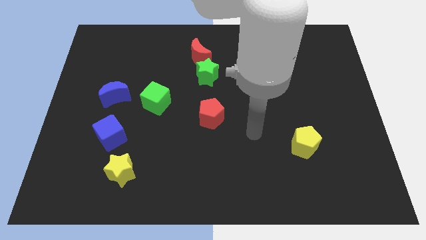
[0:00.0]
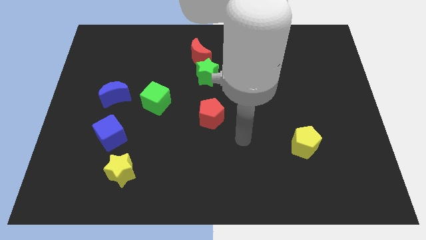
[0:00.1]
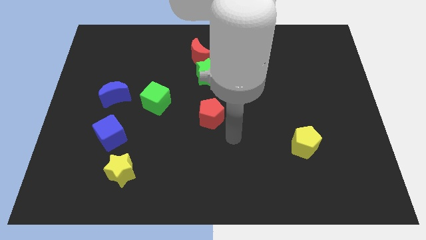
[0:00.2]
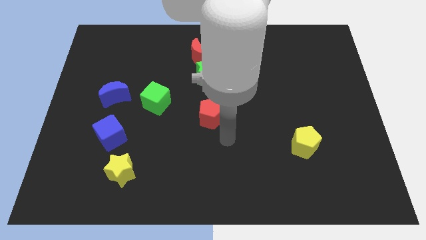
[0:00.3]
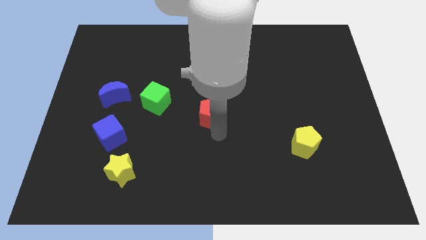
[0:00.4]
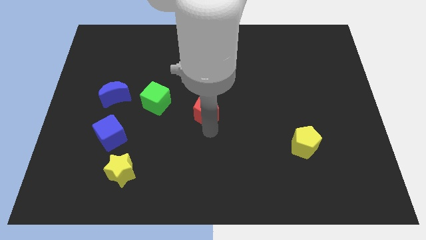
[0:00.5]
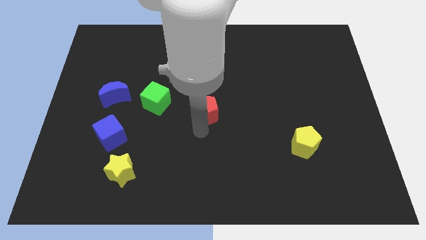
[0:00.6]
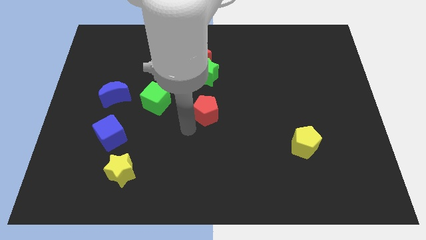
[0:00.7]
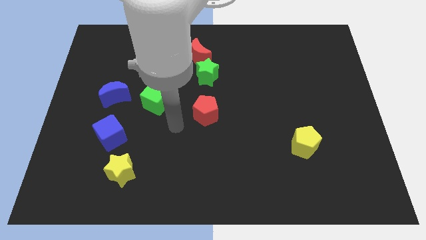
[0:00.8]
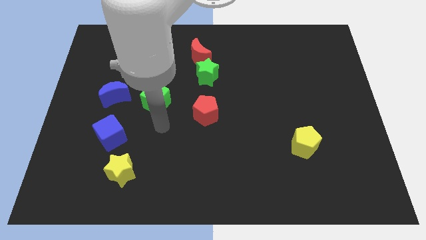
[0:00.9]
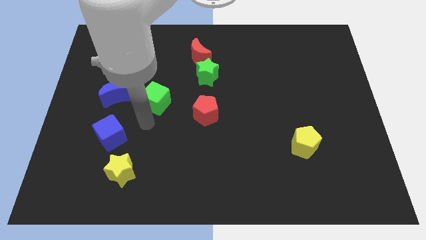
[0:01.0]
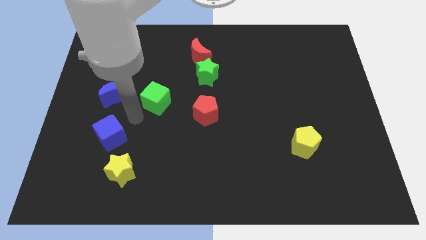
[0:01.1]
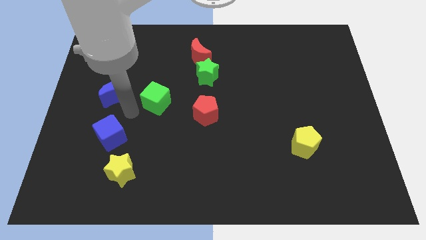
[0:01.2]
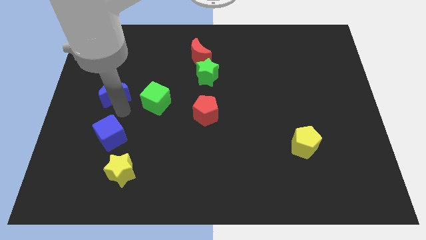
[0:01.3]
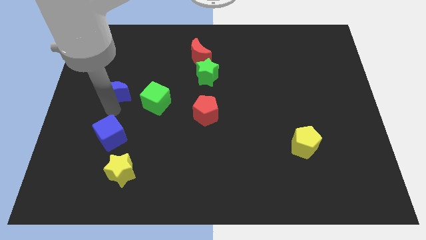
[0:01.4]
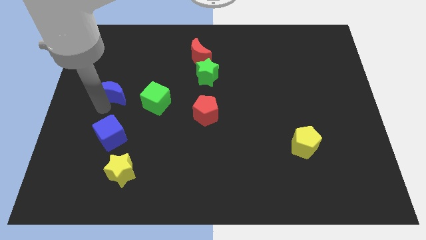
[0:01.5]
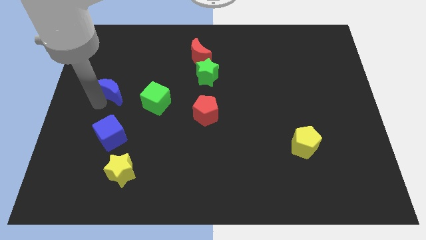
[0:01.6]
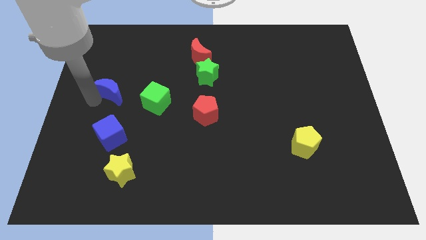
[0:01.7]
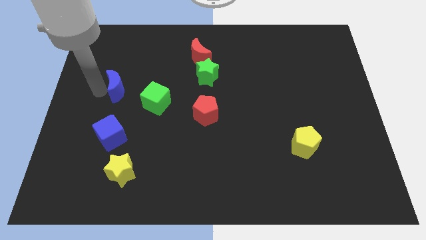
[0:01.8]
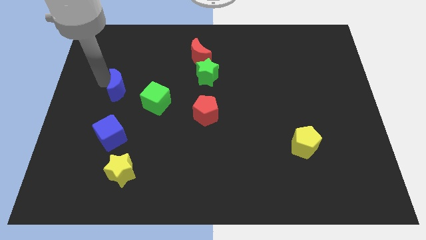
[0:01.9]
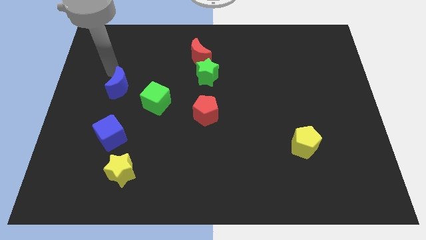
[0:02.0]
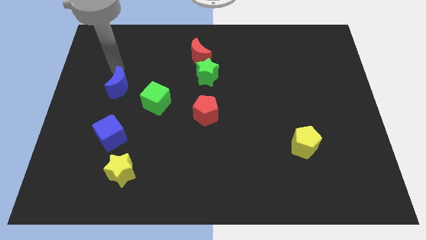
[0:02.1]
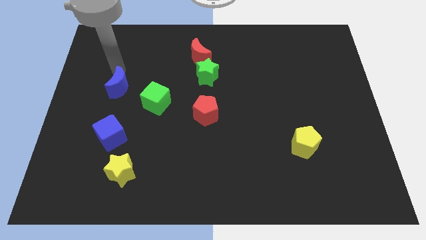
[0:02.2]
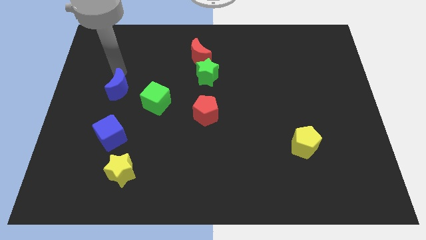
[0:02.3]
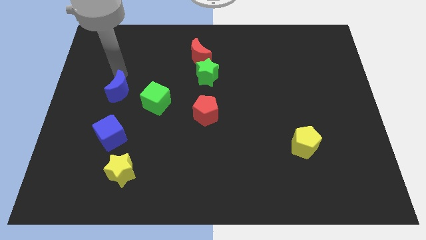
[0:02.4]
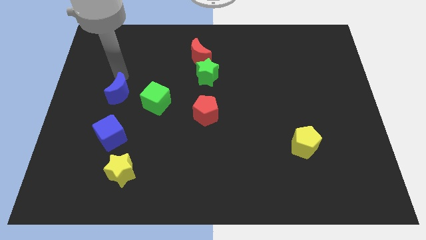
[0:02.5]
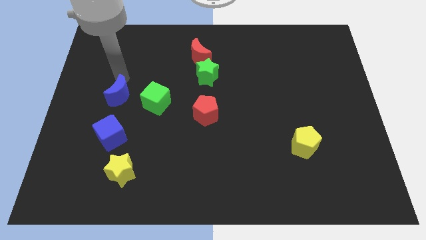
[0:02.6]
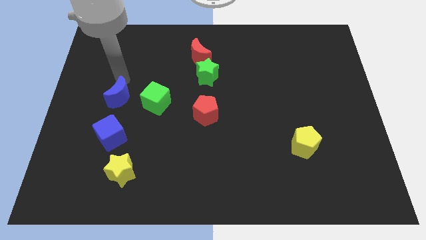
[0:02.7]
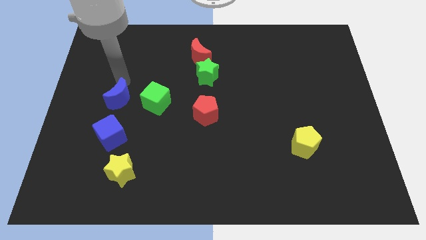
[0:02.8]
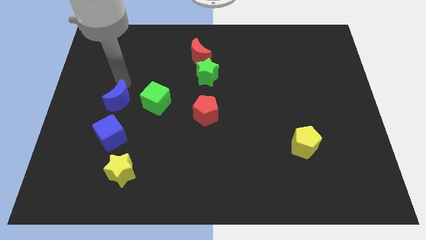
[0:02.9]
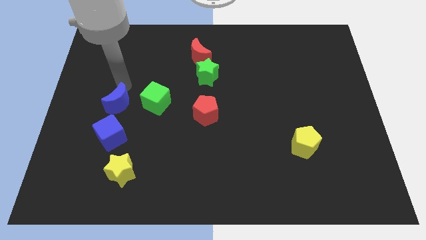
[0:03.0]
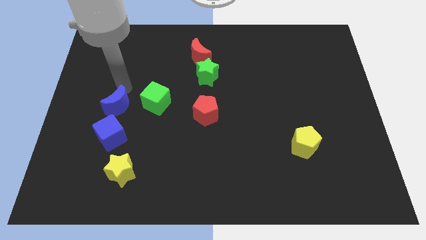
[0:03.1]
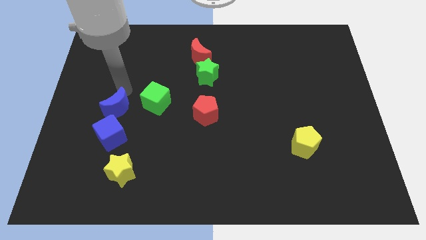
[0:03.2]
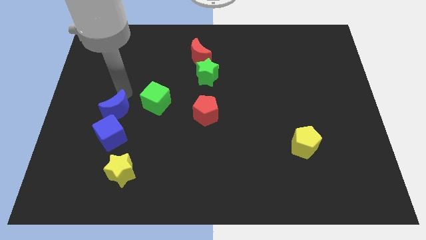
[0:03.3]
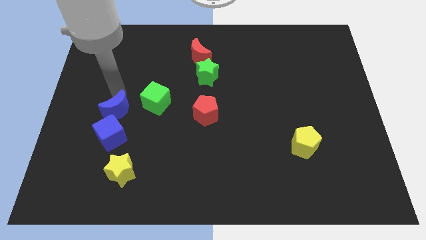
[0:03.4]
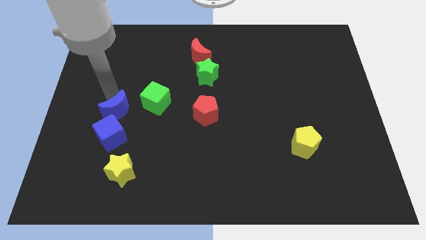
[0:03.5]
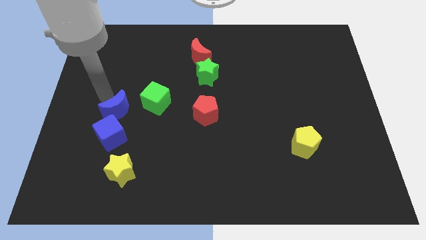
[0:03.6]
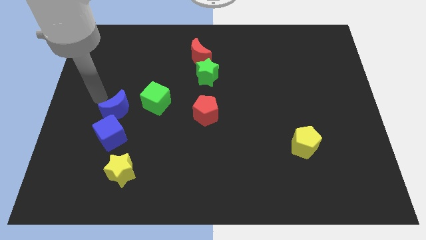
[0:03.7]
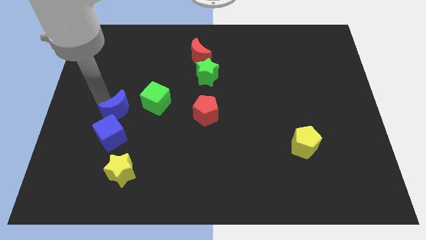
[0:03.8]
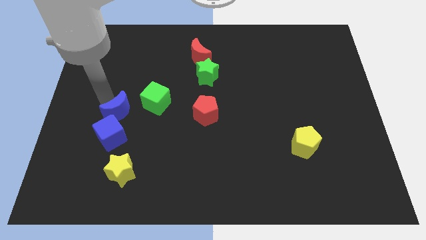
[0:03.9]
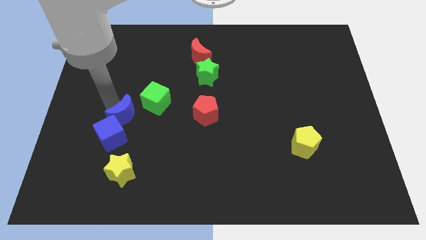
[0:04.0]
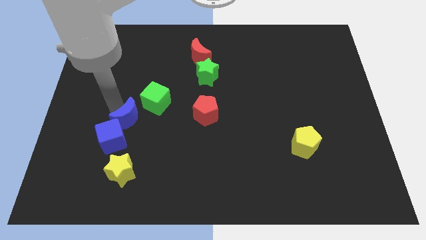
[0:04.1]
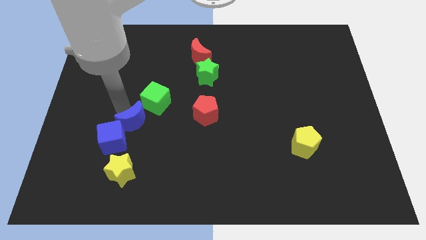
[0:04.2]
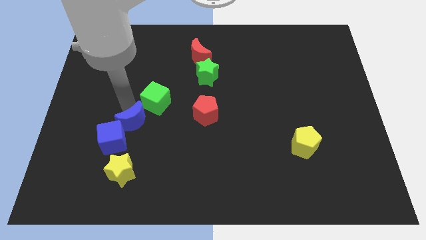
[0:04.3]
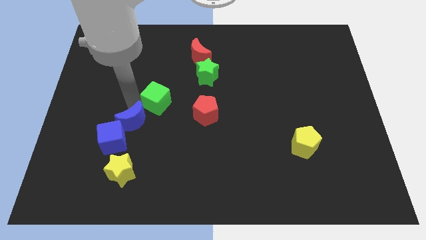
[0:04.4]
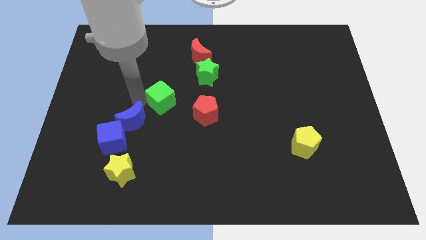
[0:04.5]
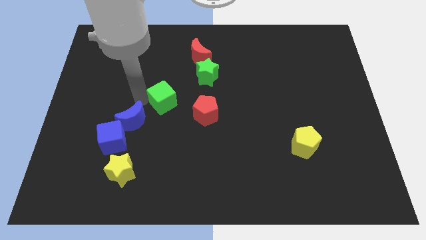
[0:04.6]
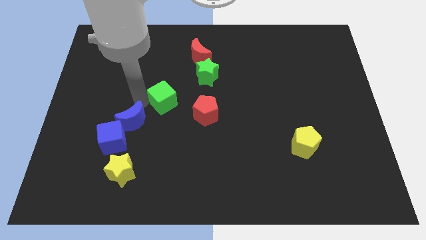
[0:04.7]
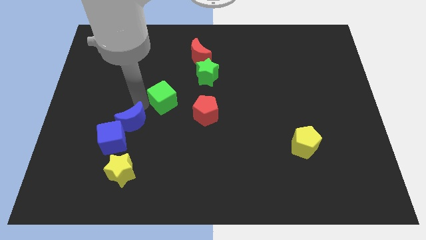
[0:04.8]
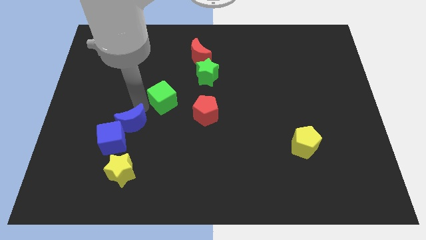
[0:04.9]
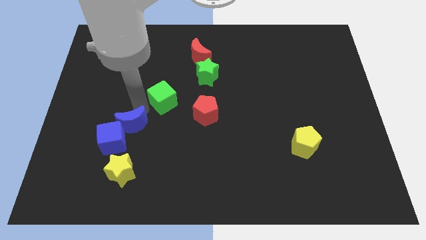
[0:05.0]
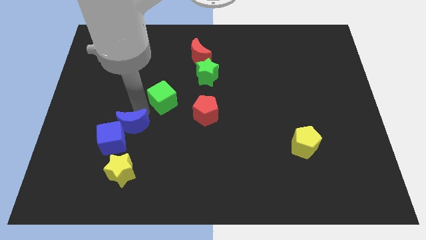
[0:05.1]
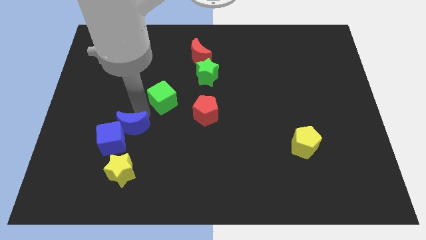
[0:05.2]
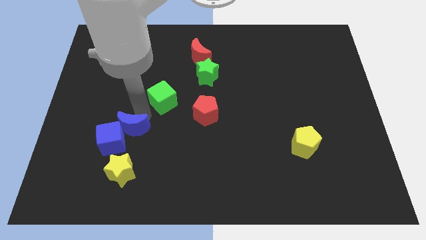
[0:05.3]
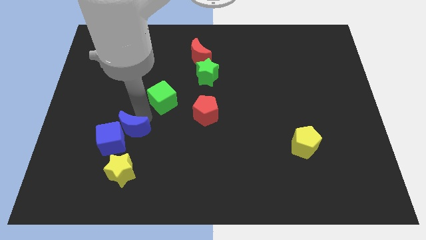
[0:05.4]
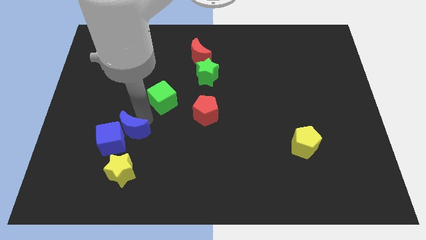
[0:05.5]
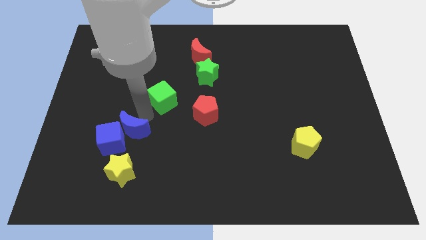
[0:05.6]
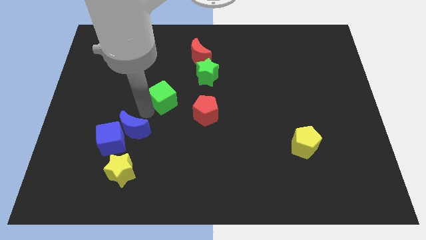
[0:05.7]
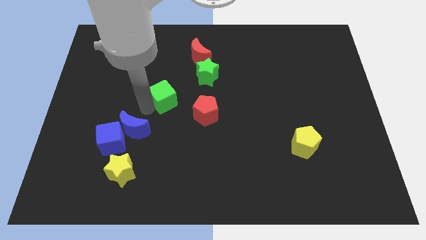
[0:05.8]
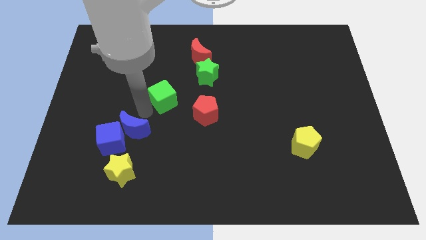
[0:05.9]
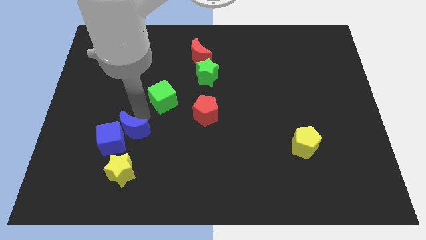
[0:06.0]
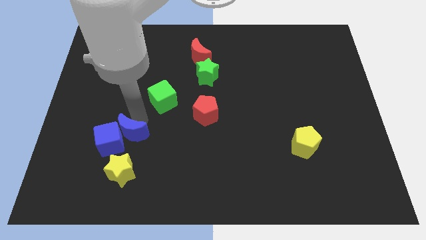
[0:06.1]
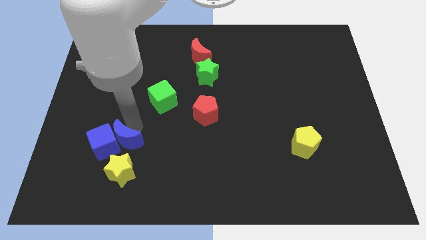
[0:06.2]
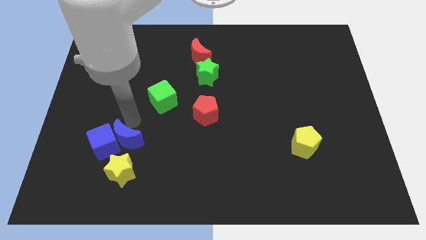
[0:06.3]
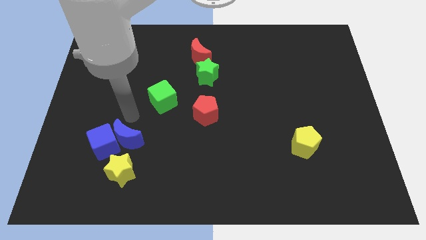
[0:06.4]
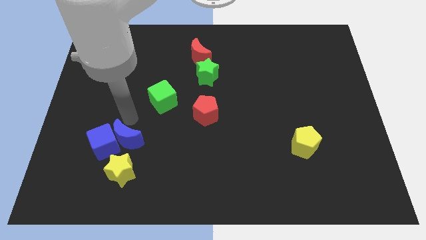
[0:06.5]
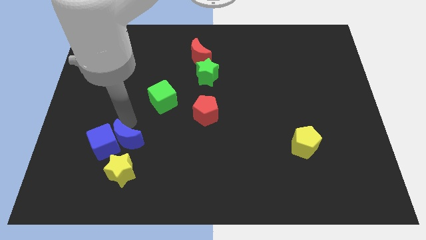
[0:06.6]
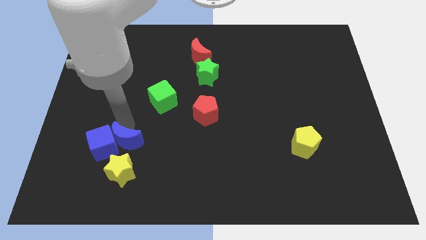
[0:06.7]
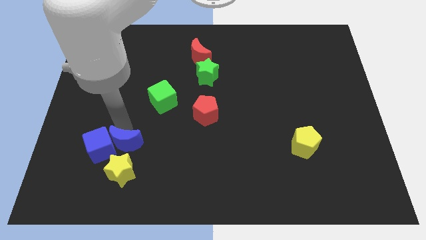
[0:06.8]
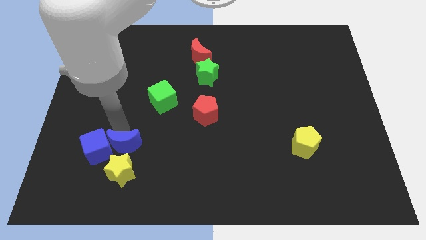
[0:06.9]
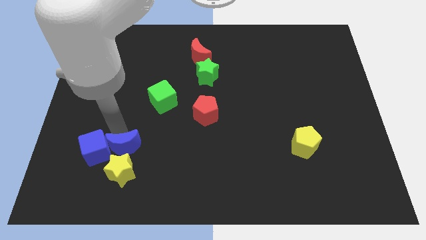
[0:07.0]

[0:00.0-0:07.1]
move the blue moon towards the yellow star
